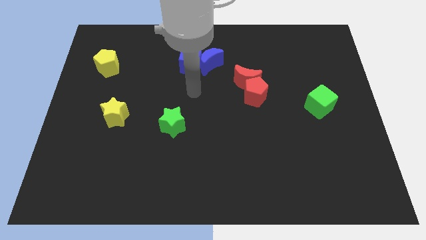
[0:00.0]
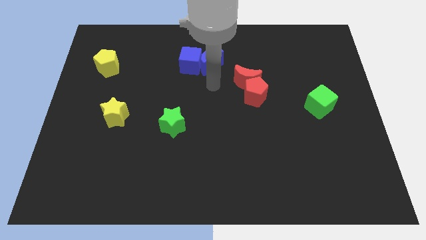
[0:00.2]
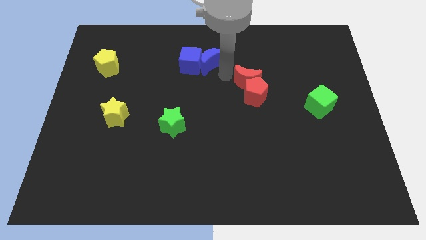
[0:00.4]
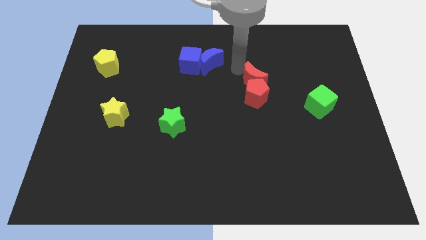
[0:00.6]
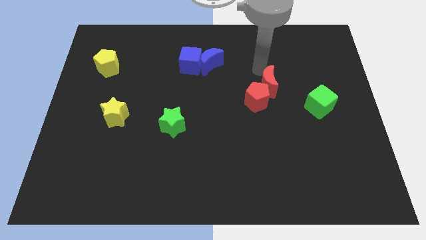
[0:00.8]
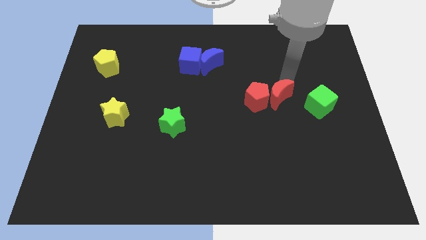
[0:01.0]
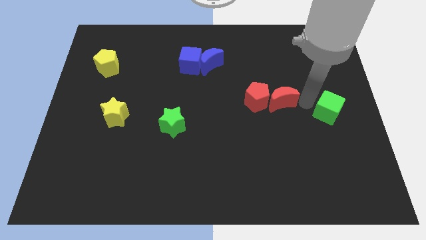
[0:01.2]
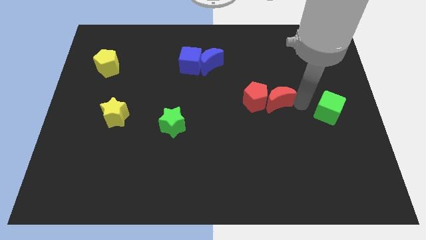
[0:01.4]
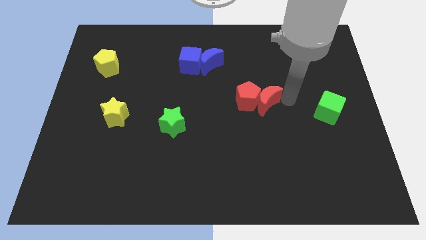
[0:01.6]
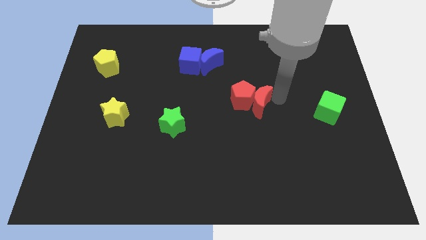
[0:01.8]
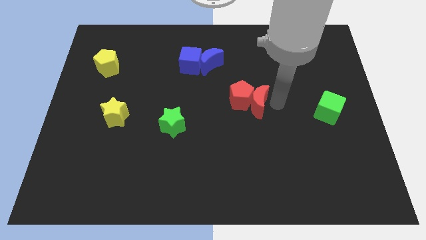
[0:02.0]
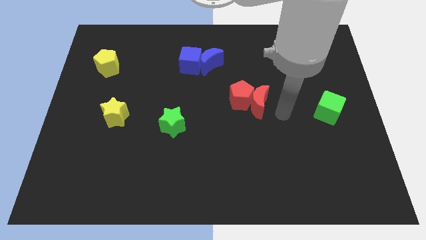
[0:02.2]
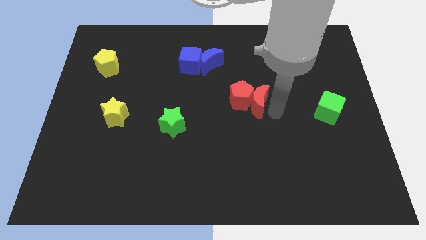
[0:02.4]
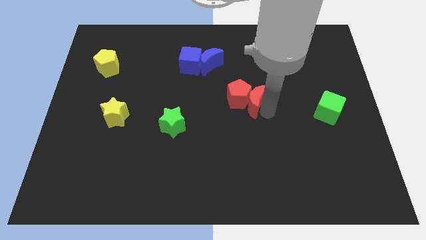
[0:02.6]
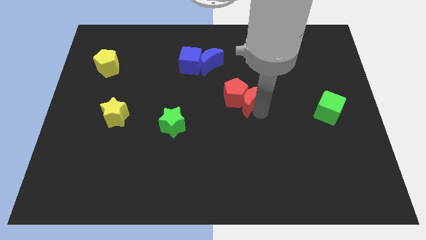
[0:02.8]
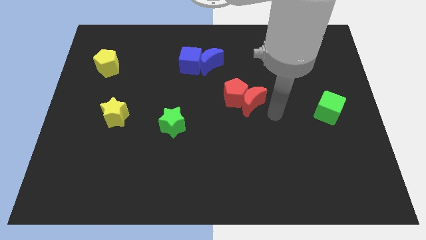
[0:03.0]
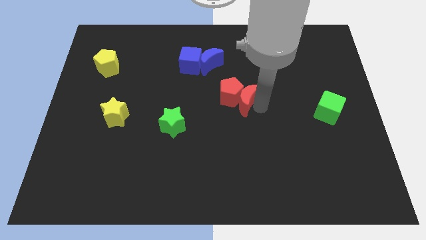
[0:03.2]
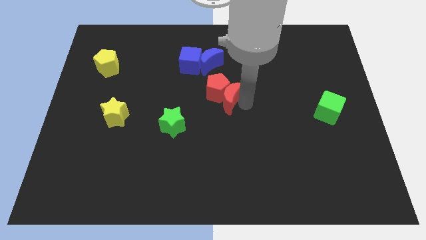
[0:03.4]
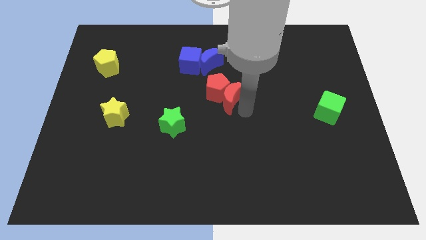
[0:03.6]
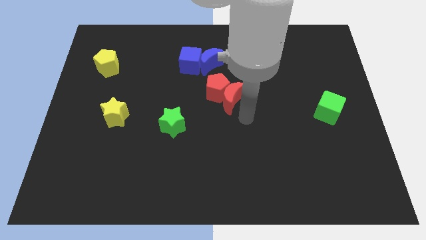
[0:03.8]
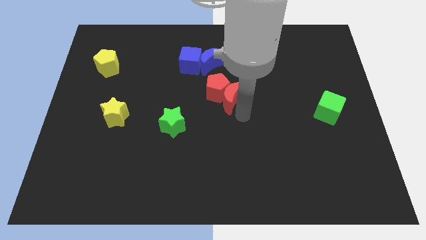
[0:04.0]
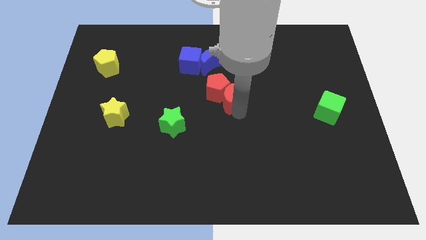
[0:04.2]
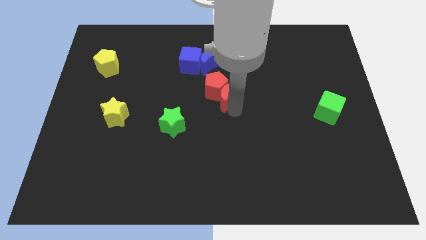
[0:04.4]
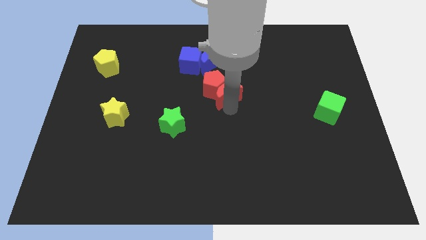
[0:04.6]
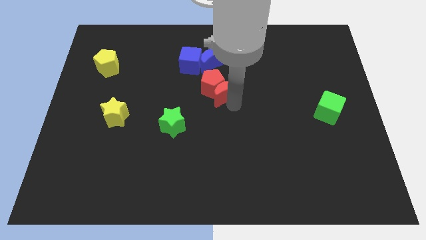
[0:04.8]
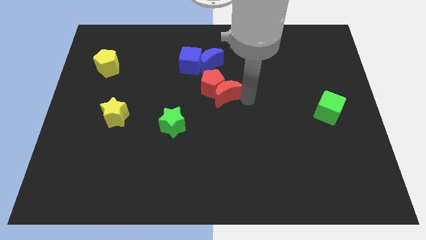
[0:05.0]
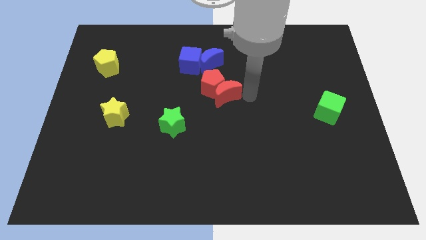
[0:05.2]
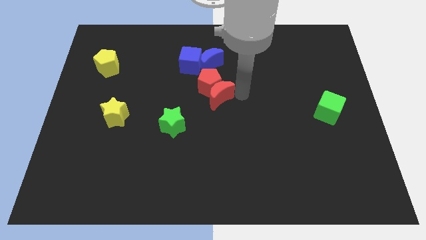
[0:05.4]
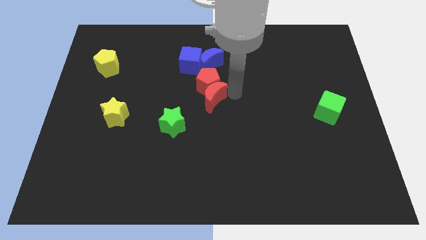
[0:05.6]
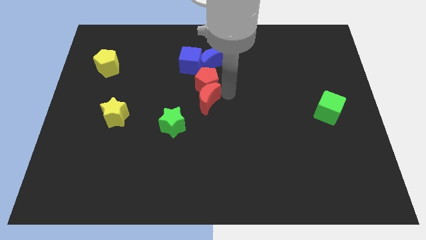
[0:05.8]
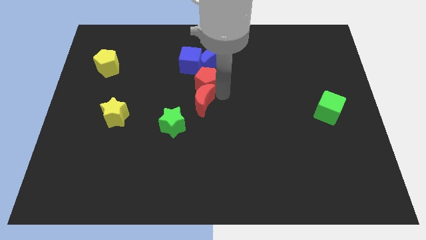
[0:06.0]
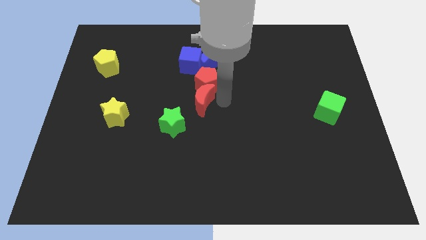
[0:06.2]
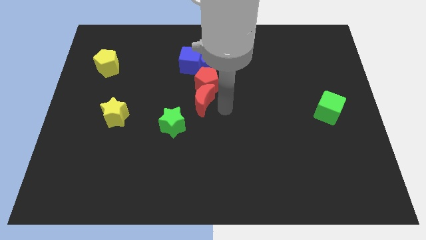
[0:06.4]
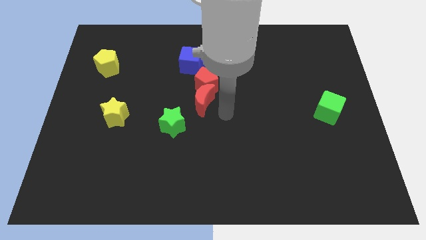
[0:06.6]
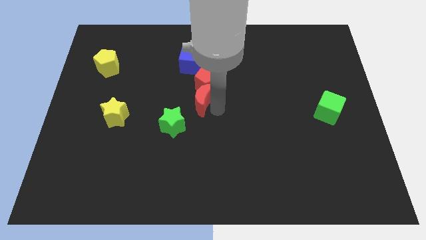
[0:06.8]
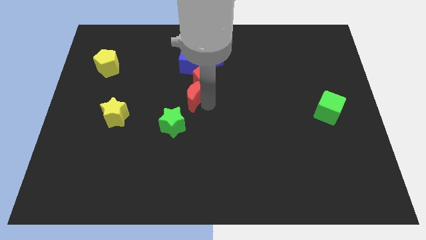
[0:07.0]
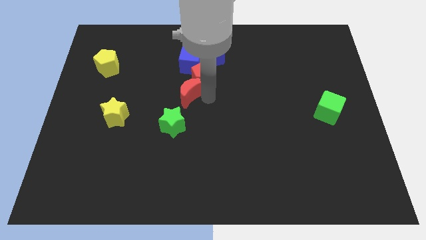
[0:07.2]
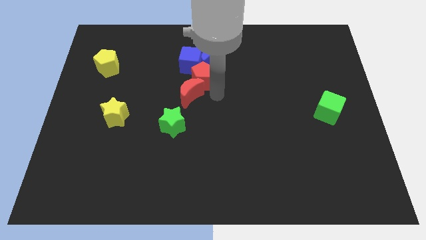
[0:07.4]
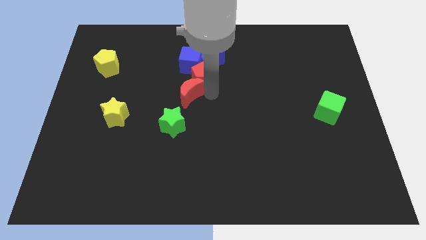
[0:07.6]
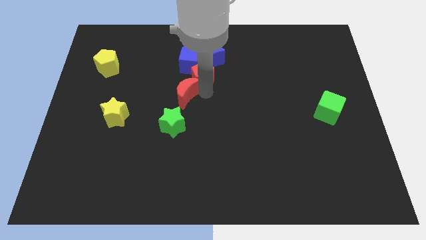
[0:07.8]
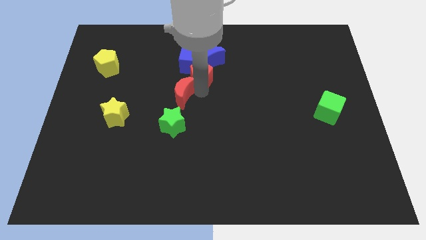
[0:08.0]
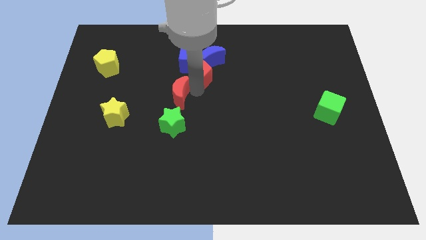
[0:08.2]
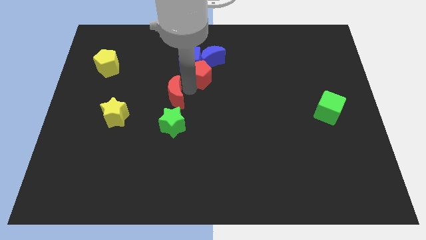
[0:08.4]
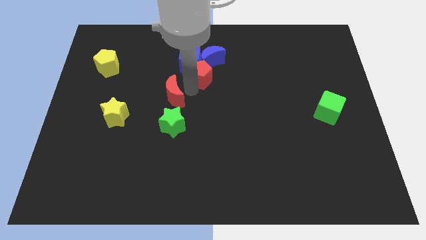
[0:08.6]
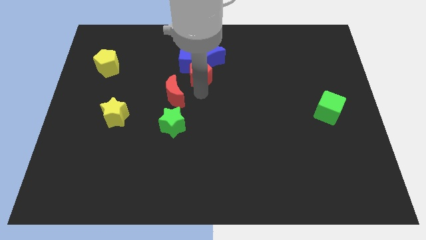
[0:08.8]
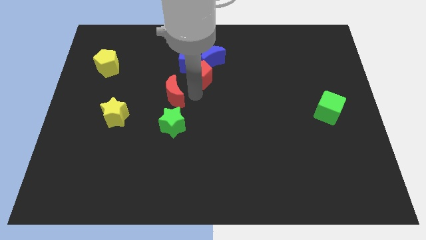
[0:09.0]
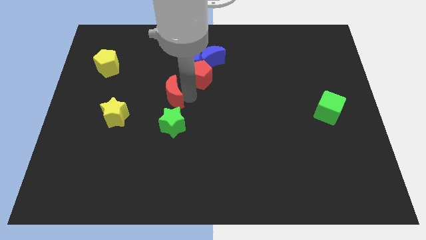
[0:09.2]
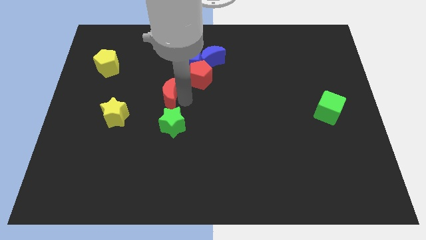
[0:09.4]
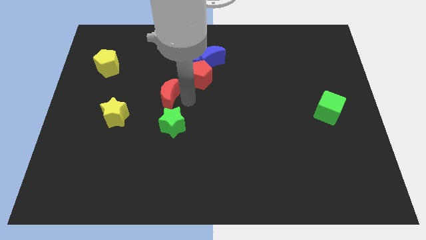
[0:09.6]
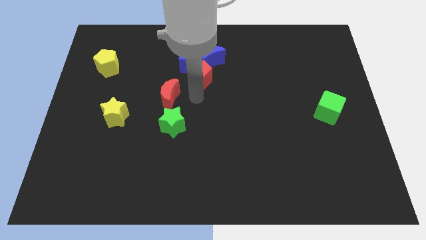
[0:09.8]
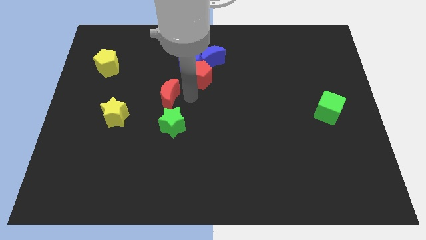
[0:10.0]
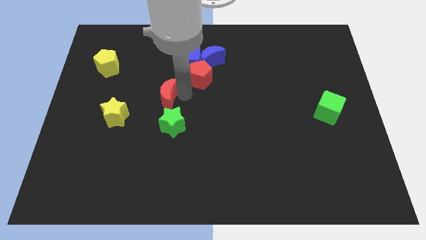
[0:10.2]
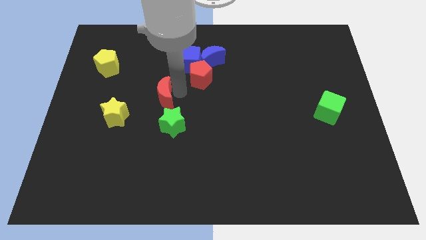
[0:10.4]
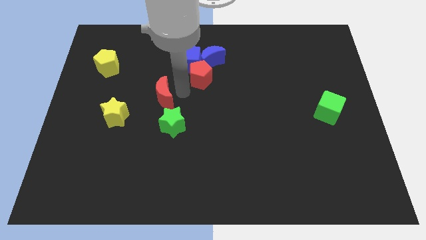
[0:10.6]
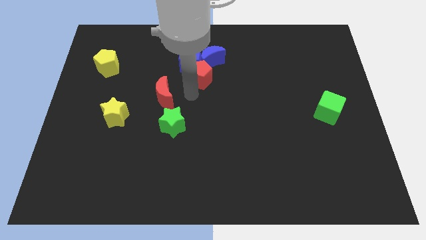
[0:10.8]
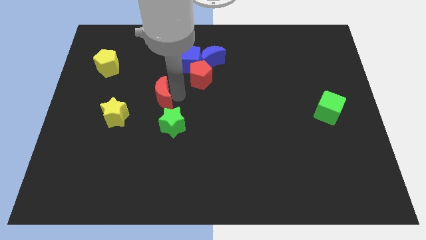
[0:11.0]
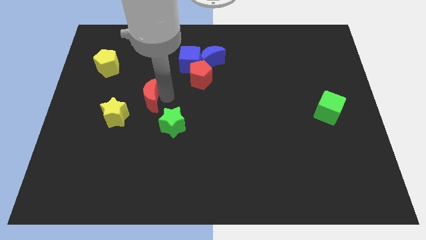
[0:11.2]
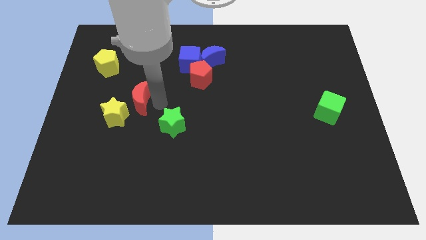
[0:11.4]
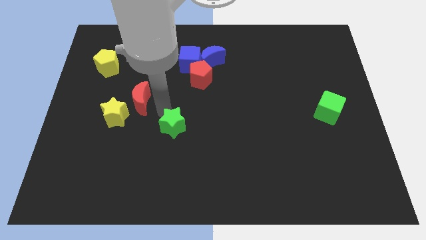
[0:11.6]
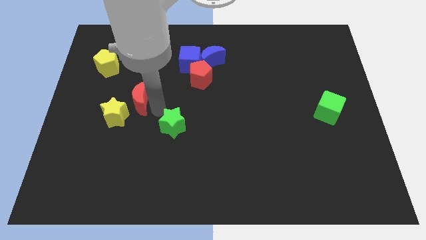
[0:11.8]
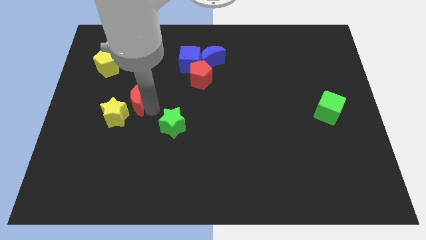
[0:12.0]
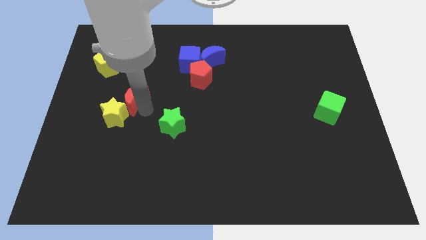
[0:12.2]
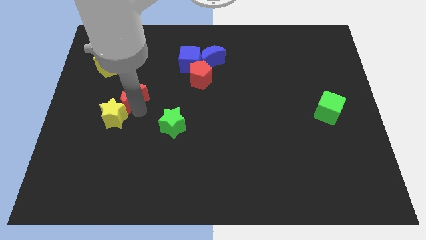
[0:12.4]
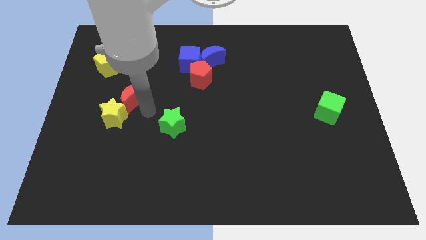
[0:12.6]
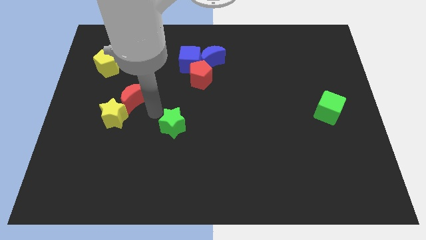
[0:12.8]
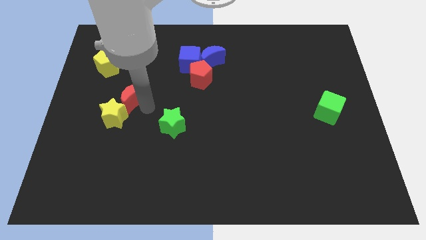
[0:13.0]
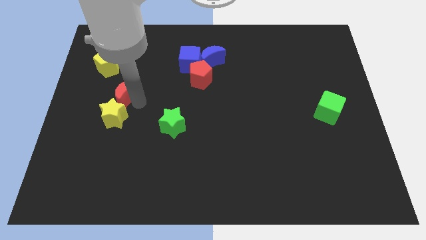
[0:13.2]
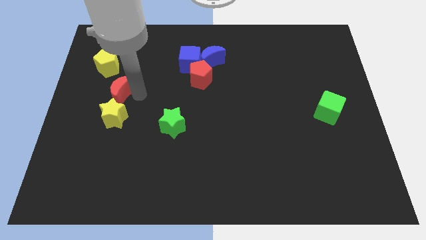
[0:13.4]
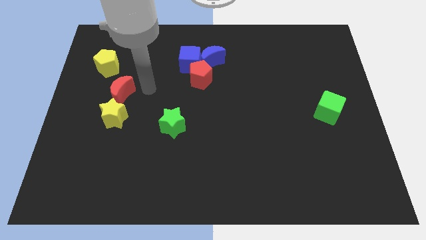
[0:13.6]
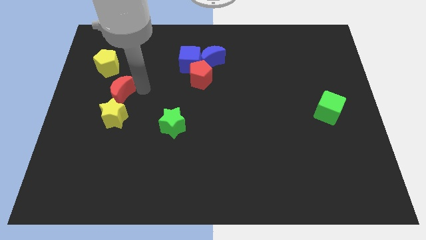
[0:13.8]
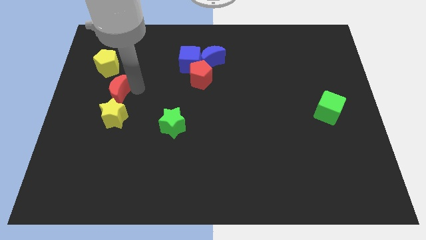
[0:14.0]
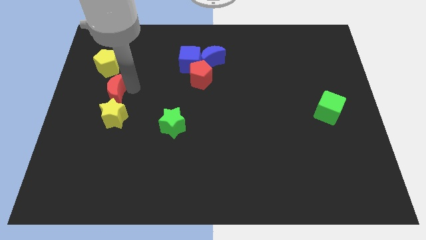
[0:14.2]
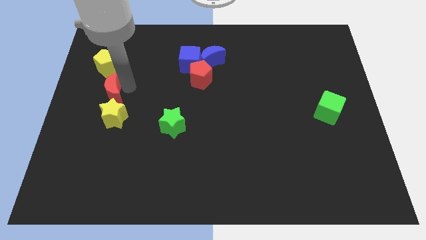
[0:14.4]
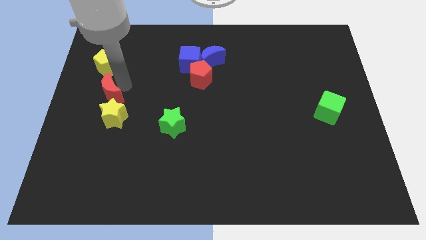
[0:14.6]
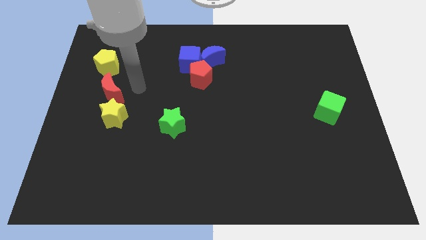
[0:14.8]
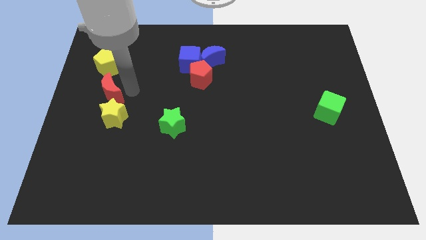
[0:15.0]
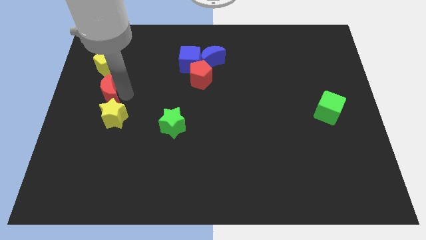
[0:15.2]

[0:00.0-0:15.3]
put the red moon to the left side
